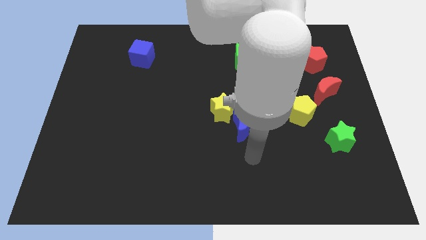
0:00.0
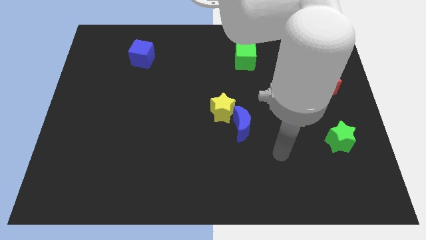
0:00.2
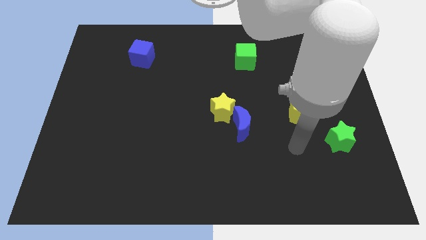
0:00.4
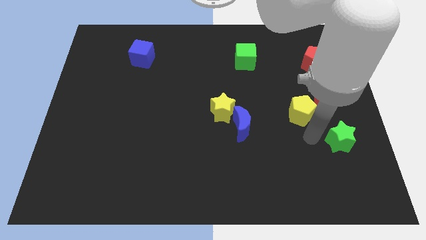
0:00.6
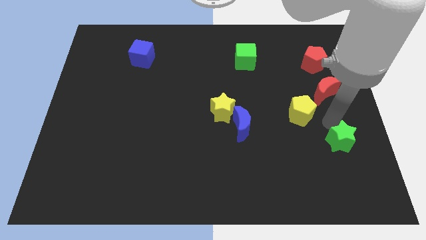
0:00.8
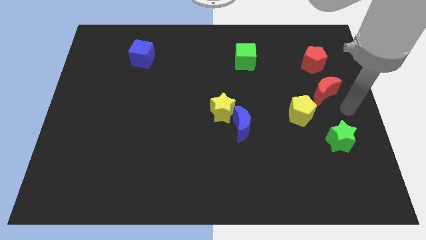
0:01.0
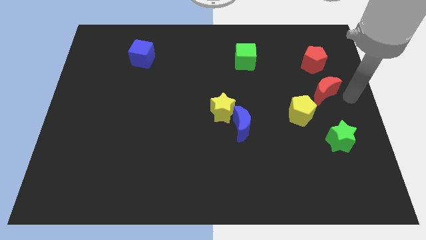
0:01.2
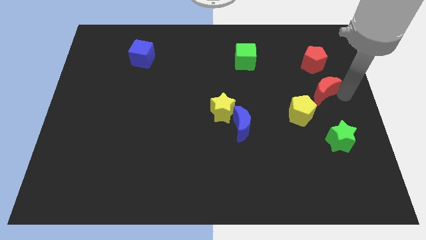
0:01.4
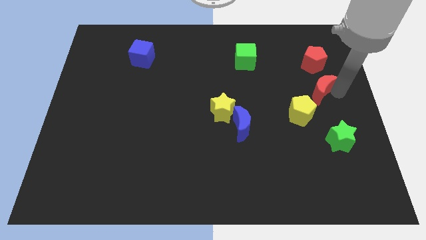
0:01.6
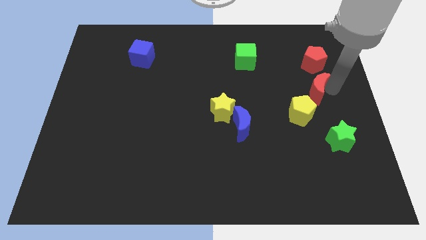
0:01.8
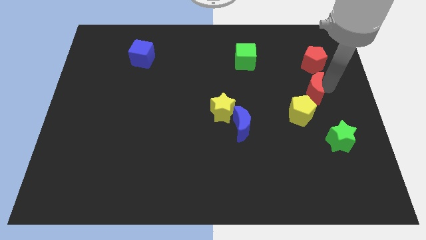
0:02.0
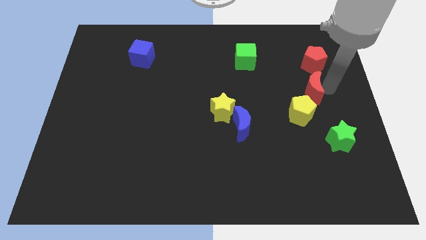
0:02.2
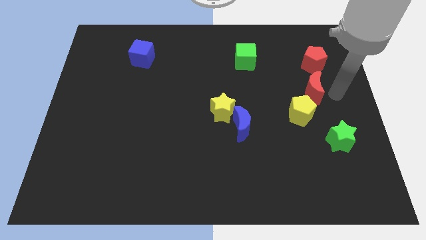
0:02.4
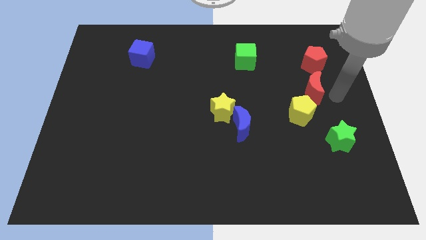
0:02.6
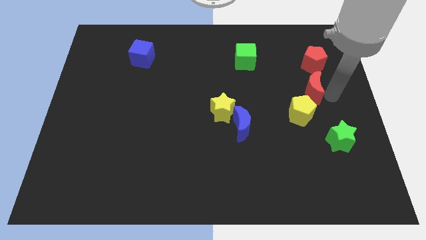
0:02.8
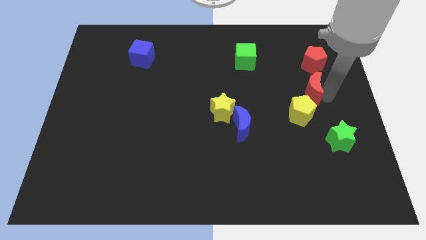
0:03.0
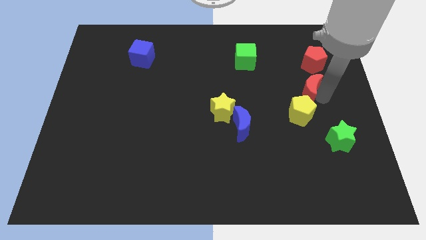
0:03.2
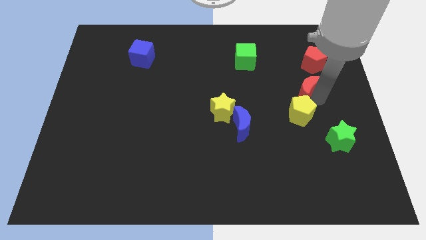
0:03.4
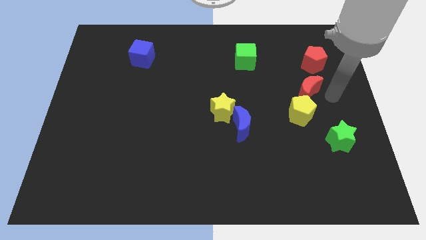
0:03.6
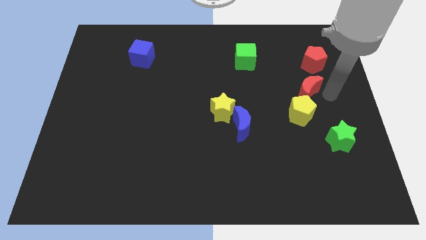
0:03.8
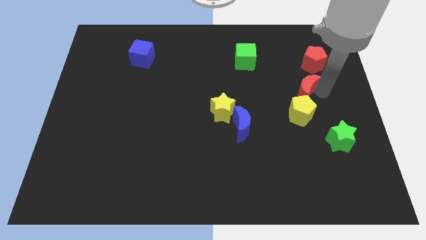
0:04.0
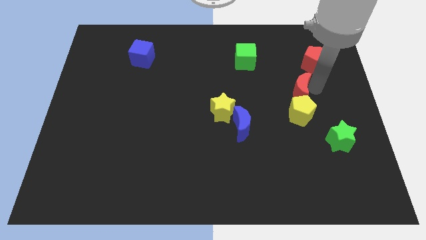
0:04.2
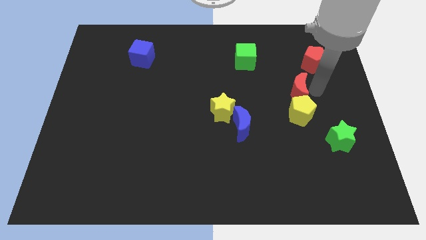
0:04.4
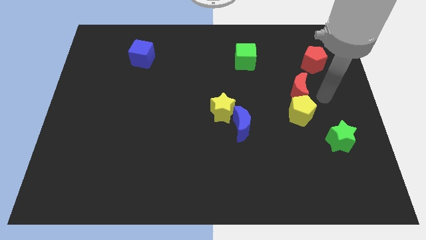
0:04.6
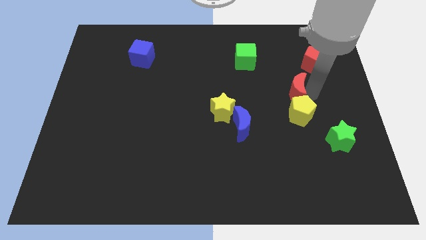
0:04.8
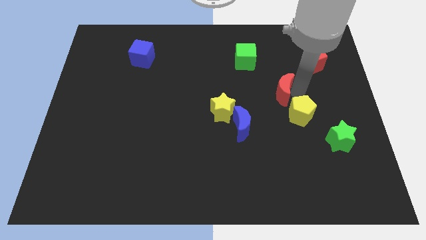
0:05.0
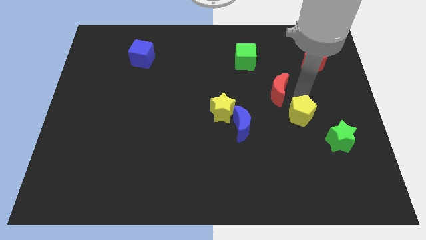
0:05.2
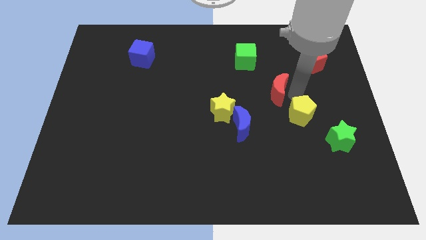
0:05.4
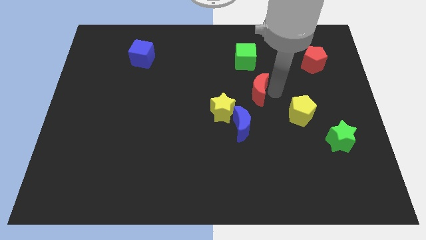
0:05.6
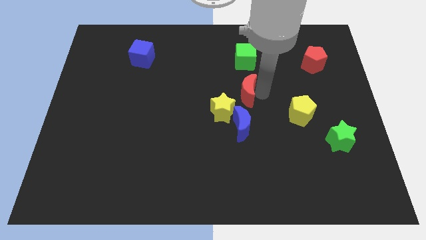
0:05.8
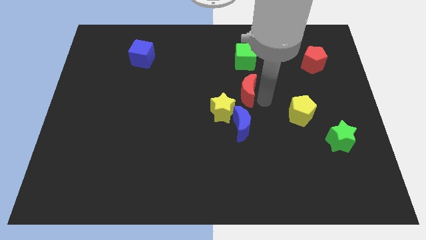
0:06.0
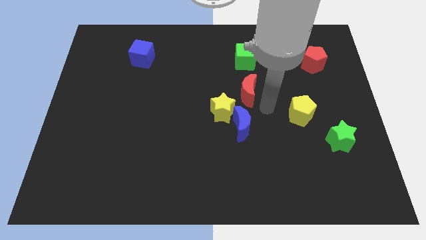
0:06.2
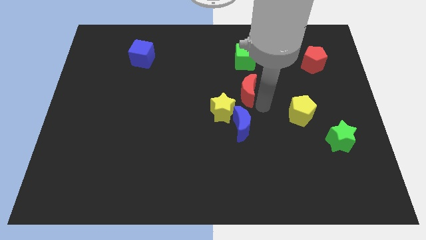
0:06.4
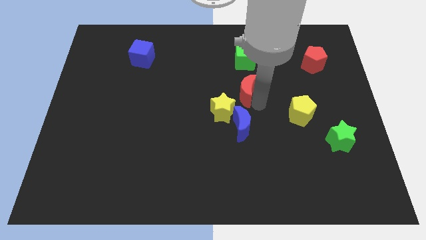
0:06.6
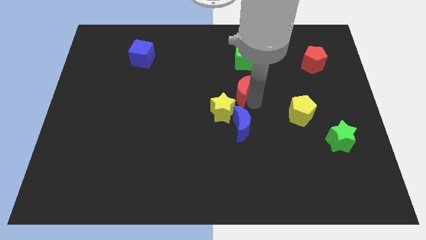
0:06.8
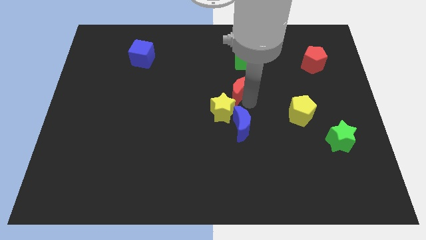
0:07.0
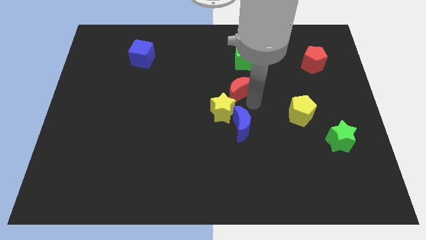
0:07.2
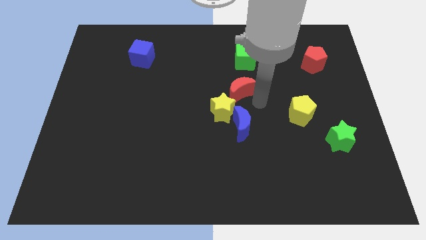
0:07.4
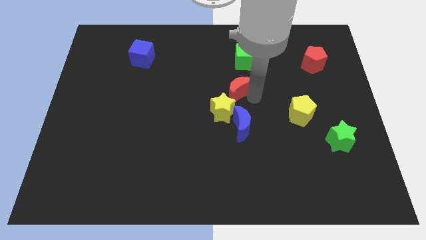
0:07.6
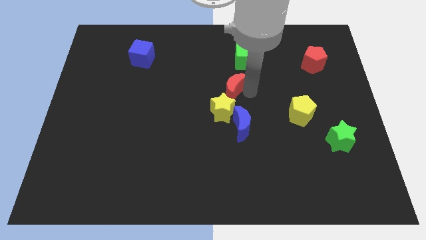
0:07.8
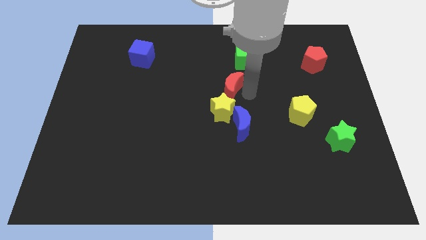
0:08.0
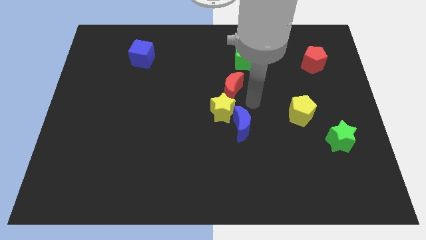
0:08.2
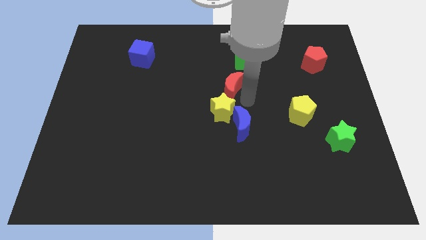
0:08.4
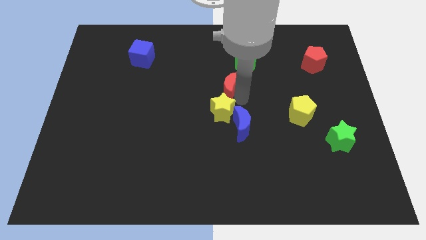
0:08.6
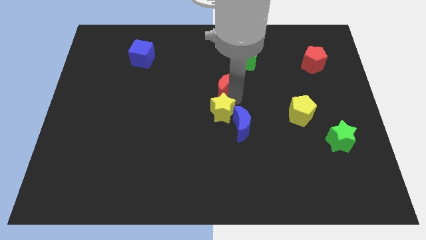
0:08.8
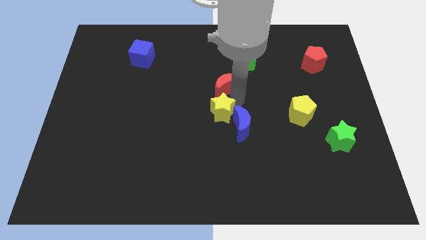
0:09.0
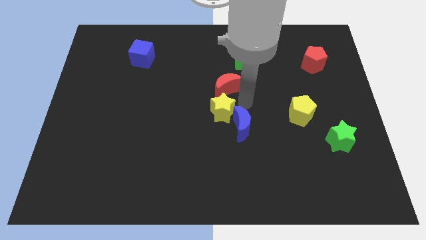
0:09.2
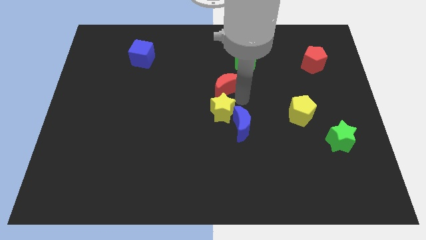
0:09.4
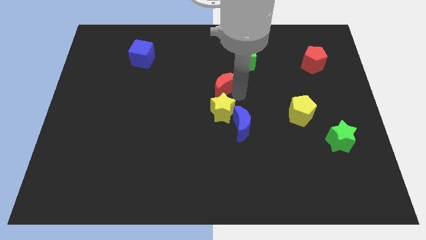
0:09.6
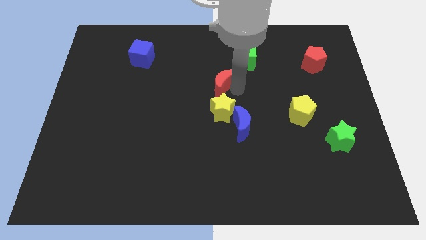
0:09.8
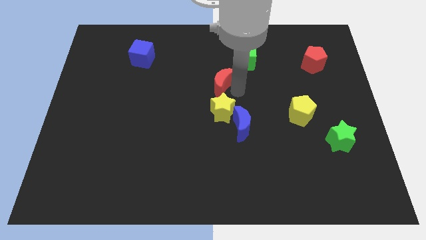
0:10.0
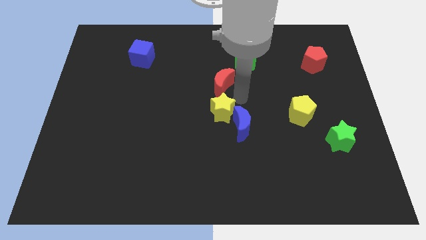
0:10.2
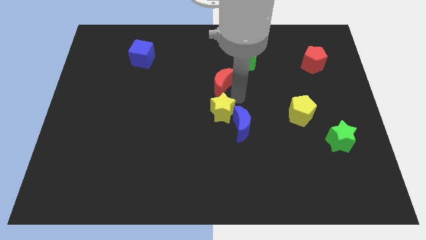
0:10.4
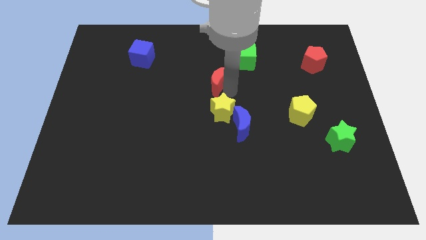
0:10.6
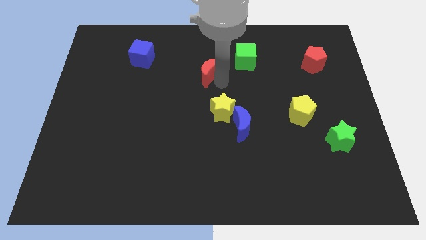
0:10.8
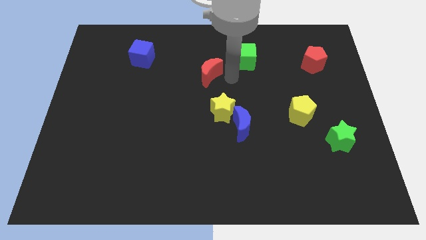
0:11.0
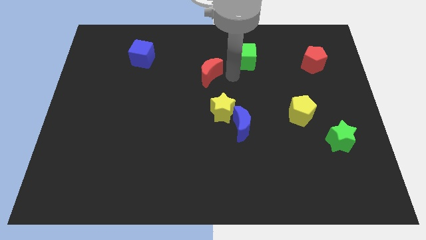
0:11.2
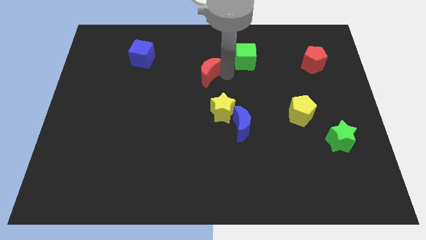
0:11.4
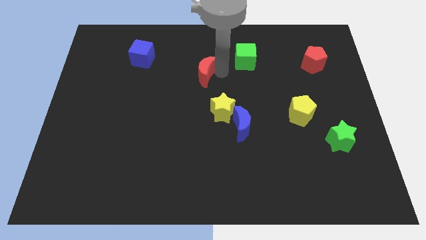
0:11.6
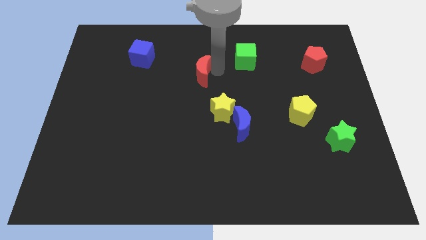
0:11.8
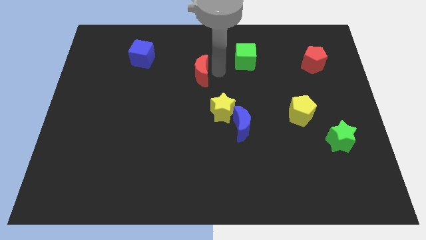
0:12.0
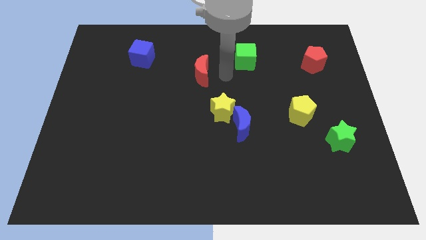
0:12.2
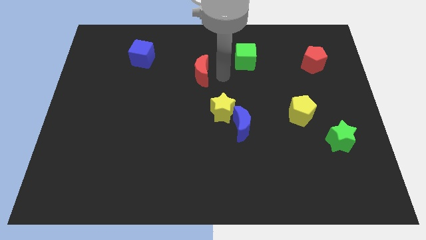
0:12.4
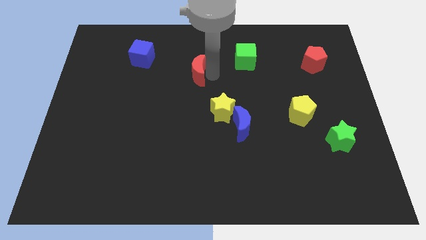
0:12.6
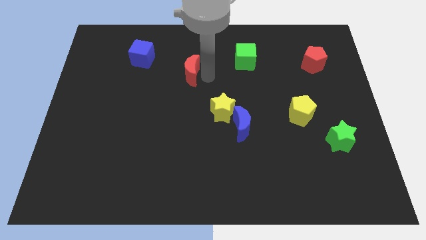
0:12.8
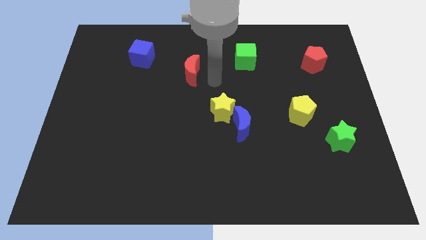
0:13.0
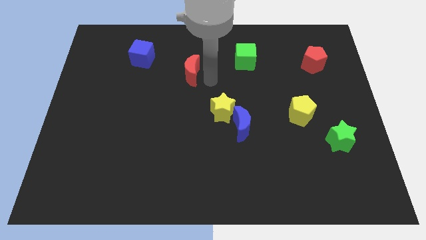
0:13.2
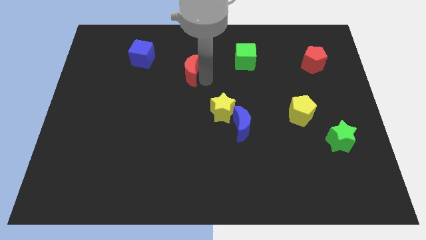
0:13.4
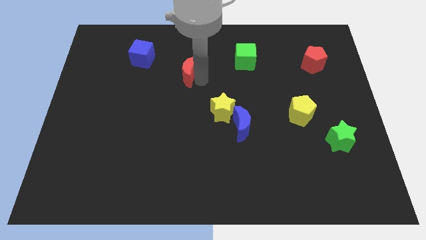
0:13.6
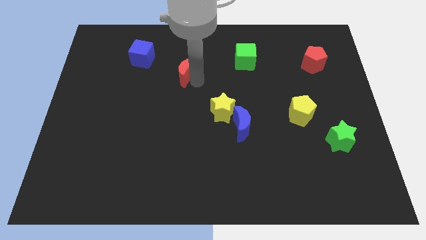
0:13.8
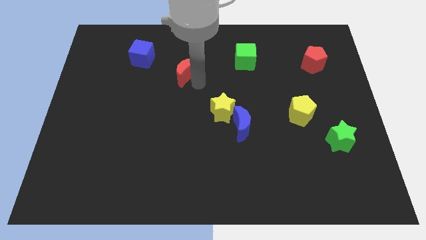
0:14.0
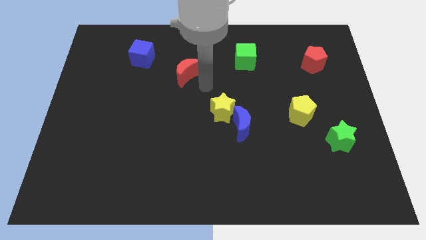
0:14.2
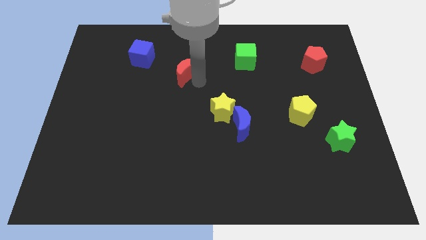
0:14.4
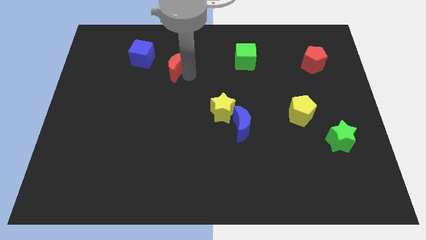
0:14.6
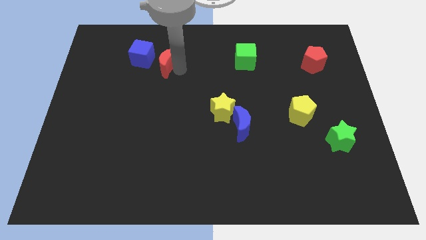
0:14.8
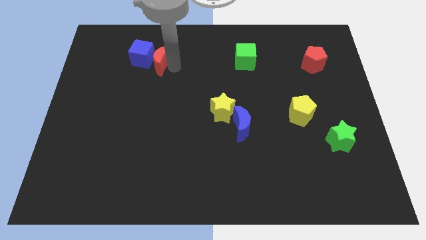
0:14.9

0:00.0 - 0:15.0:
move the red moon towards the blue cube
